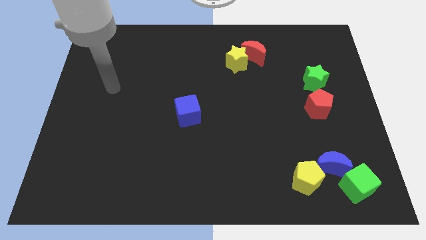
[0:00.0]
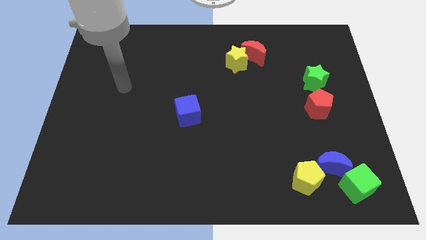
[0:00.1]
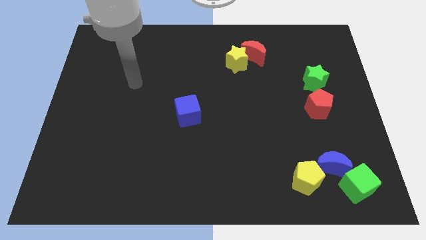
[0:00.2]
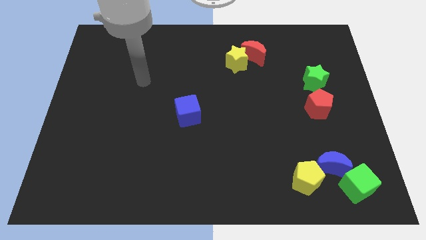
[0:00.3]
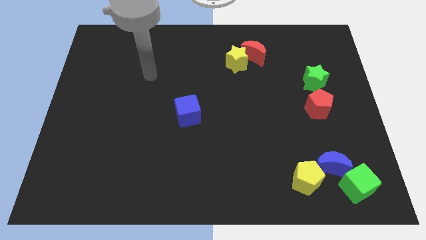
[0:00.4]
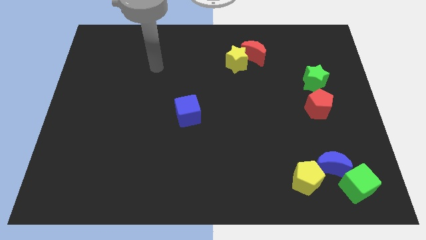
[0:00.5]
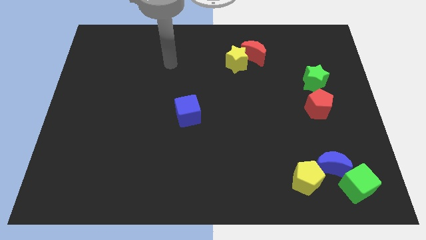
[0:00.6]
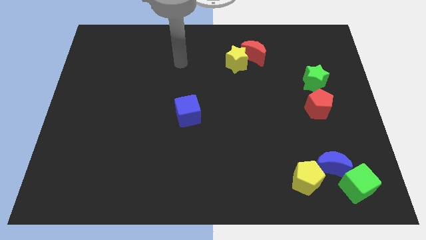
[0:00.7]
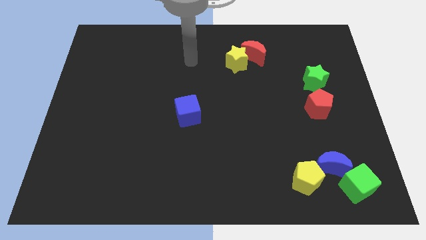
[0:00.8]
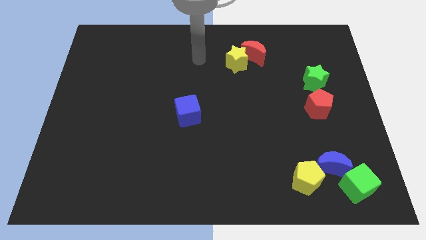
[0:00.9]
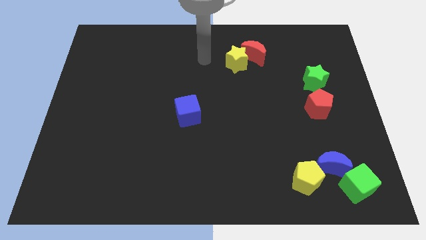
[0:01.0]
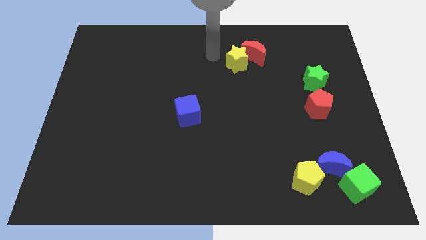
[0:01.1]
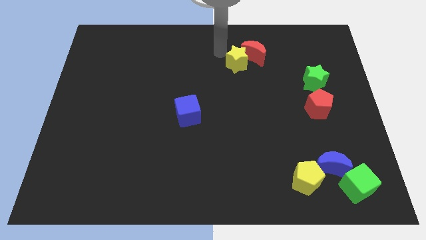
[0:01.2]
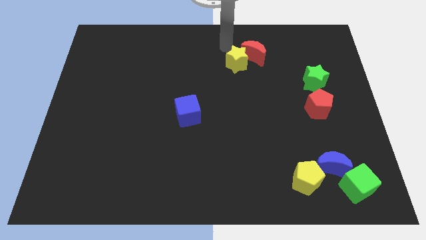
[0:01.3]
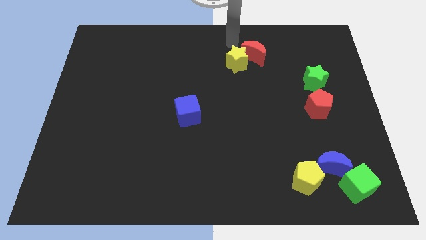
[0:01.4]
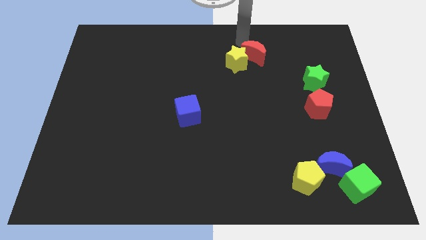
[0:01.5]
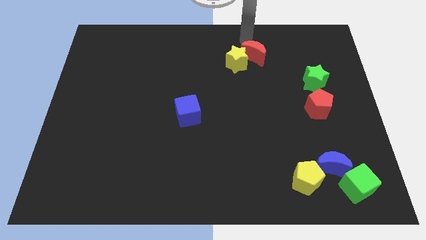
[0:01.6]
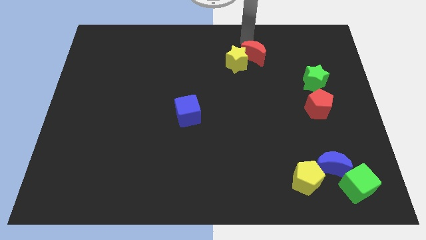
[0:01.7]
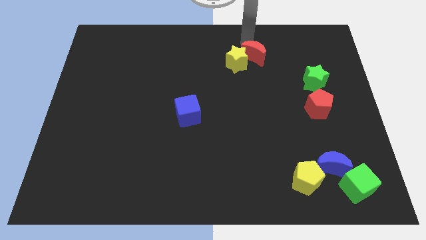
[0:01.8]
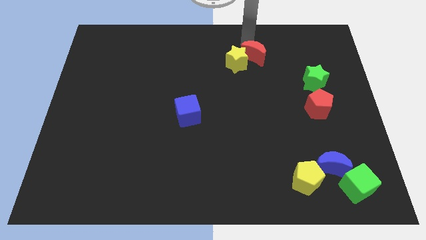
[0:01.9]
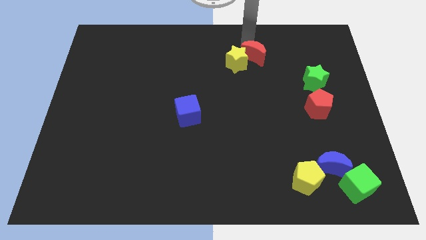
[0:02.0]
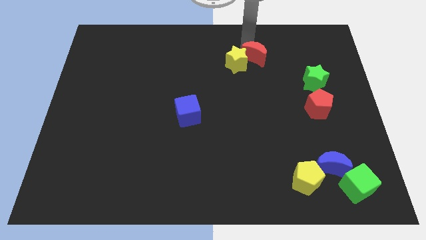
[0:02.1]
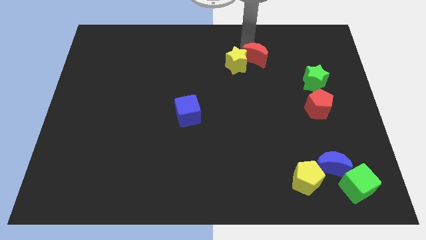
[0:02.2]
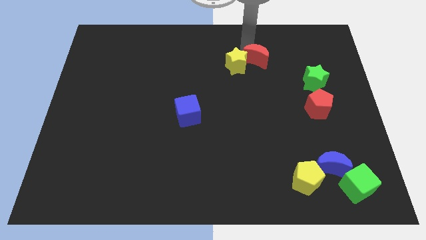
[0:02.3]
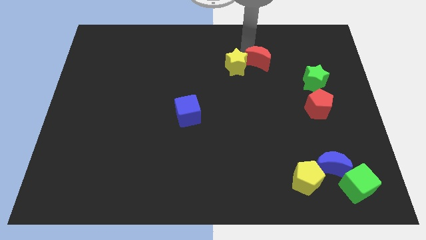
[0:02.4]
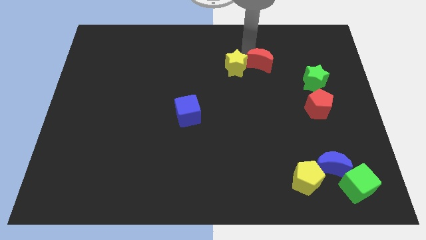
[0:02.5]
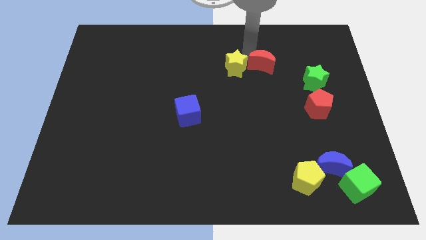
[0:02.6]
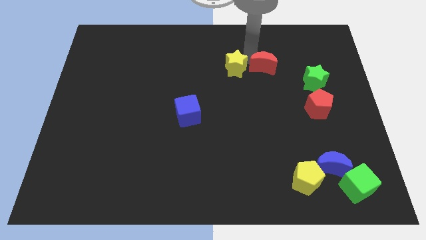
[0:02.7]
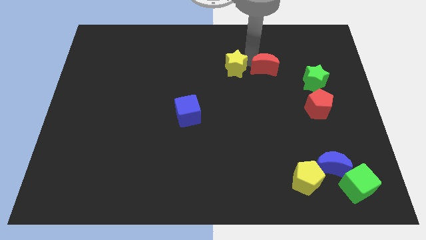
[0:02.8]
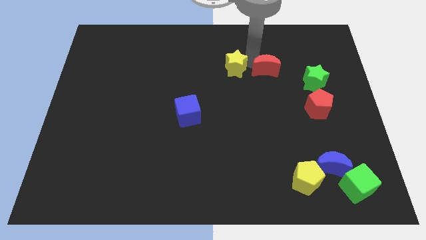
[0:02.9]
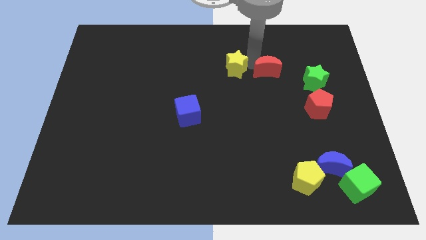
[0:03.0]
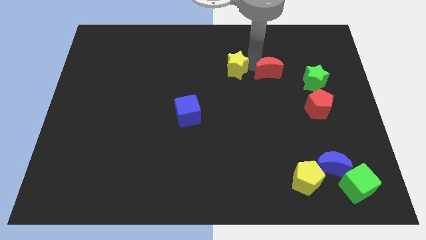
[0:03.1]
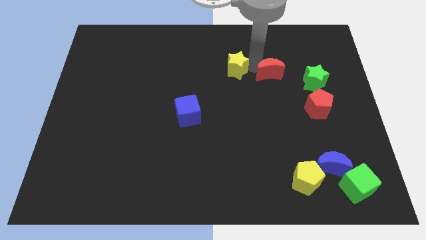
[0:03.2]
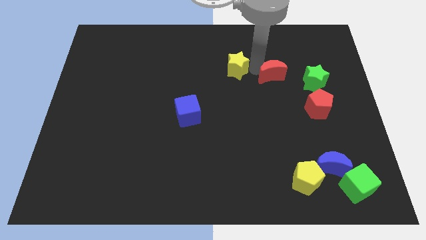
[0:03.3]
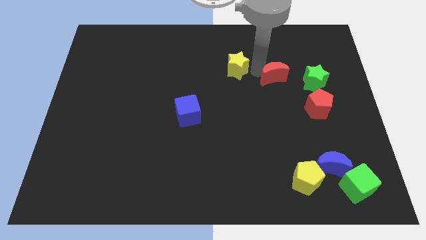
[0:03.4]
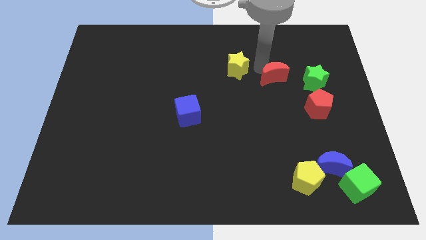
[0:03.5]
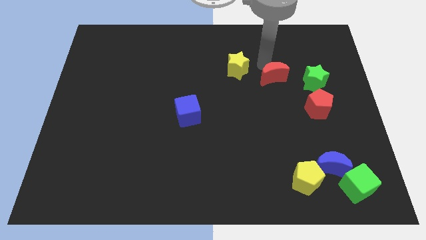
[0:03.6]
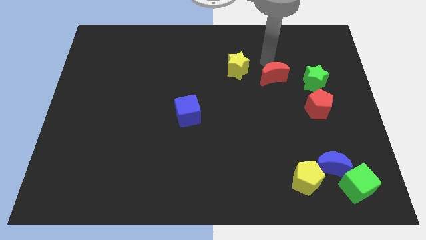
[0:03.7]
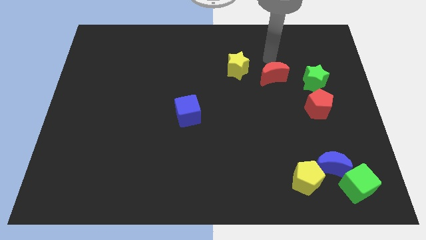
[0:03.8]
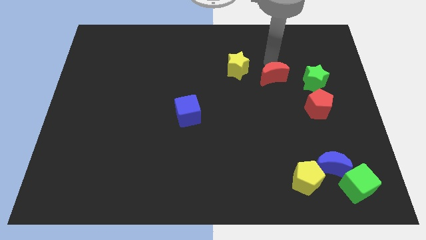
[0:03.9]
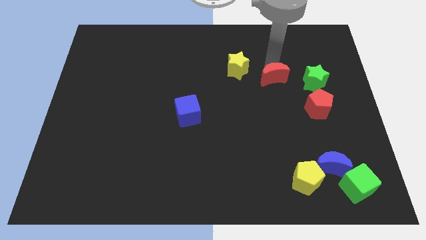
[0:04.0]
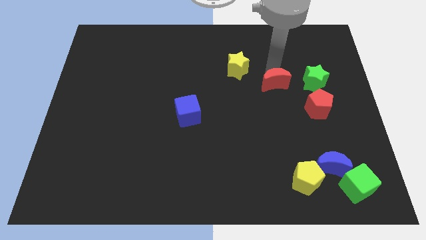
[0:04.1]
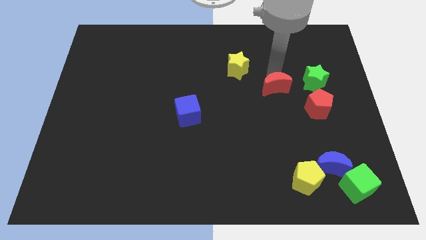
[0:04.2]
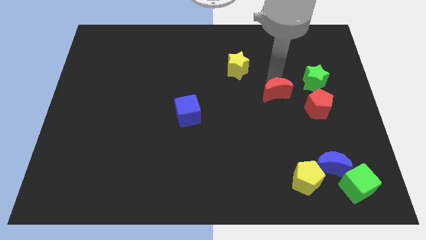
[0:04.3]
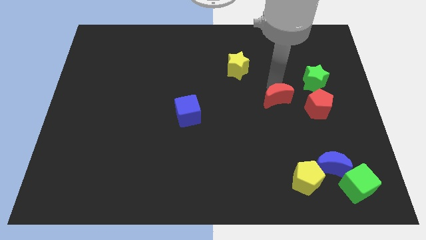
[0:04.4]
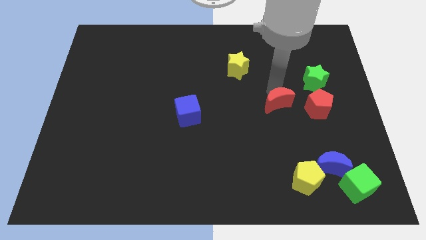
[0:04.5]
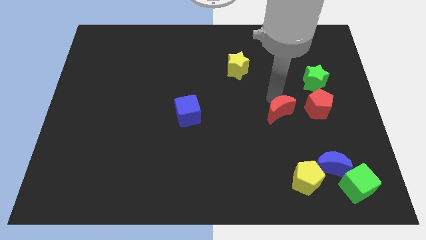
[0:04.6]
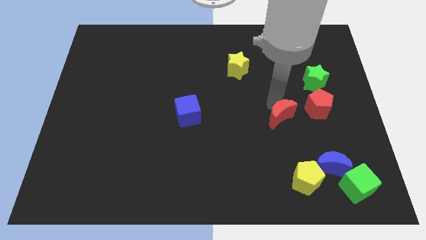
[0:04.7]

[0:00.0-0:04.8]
put the red moon diagonally down and to the left of the red pentagon

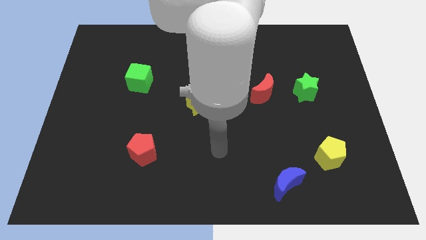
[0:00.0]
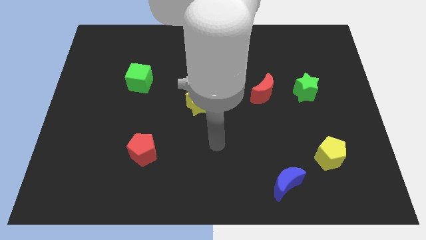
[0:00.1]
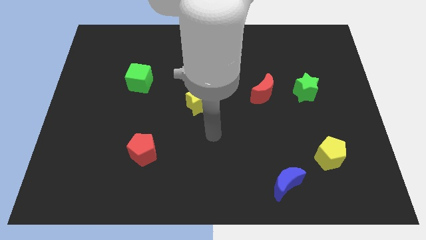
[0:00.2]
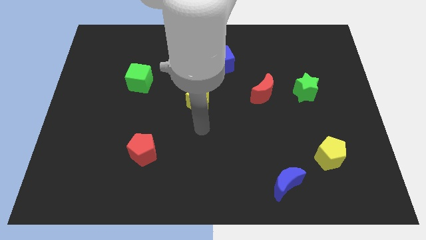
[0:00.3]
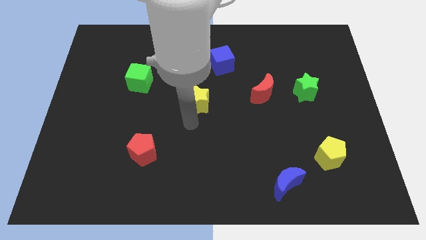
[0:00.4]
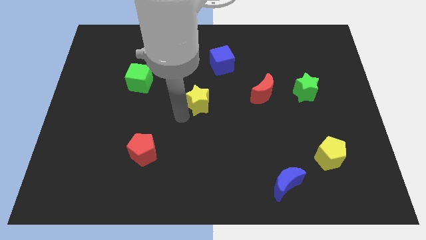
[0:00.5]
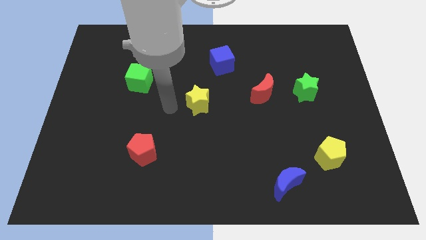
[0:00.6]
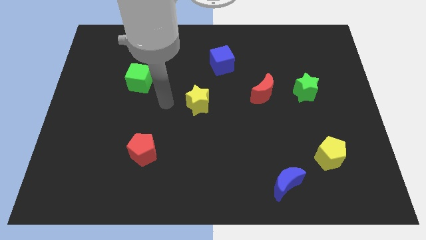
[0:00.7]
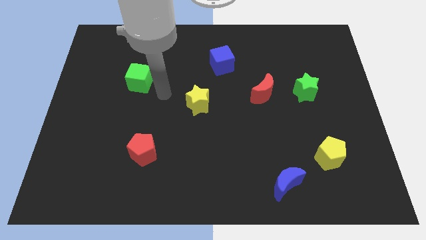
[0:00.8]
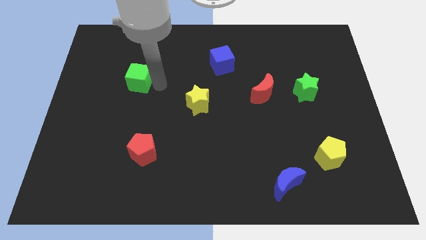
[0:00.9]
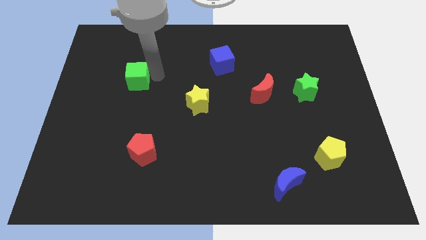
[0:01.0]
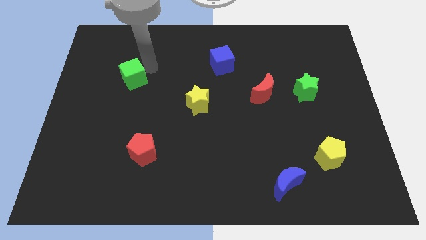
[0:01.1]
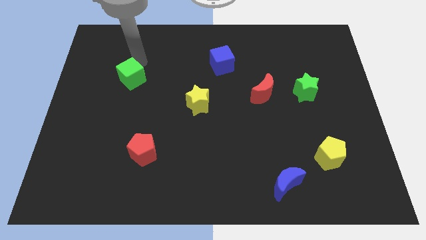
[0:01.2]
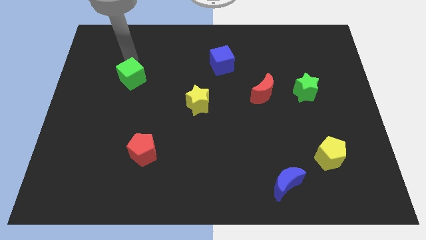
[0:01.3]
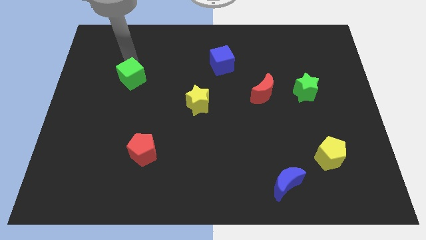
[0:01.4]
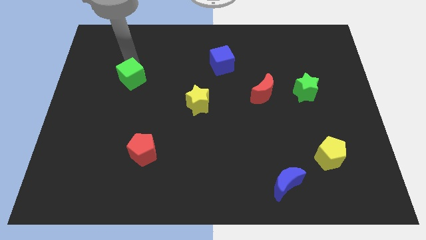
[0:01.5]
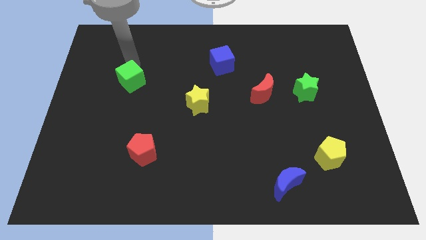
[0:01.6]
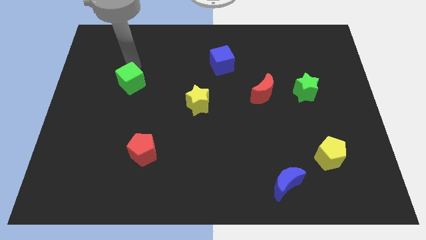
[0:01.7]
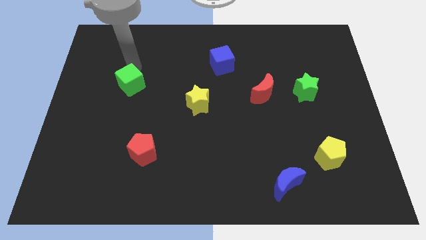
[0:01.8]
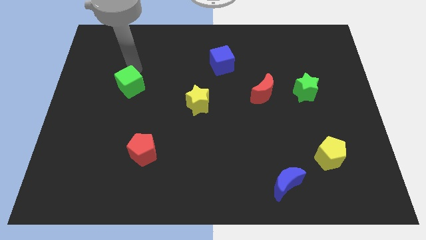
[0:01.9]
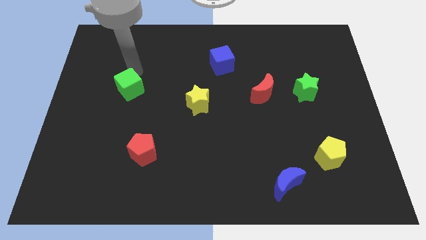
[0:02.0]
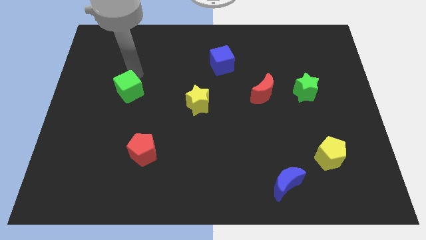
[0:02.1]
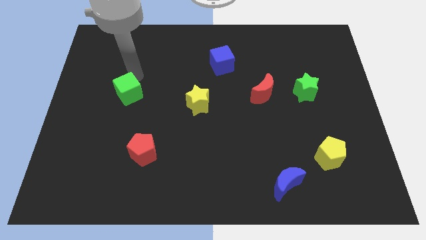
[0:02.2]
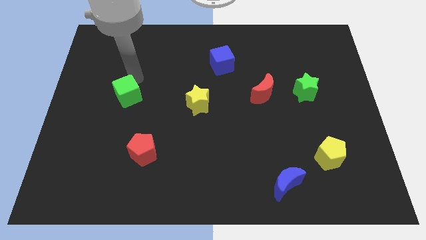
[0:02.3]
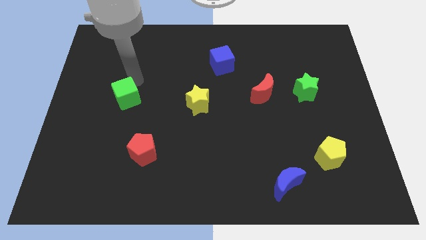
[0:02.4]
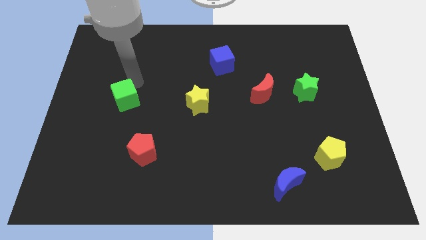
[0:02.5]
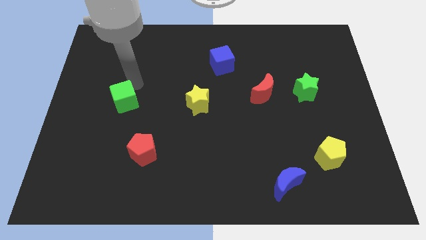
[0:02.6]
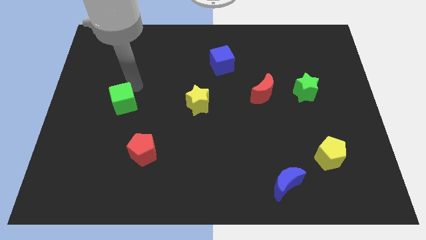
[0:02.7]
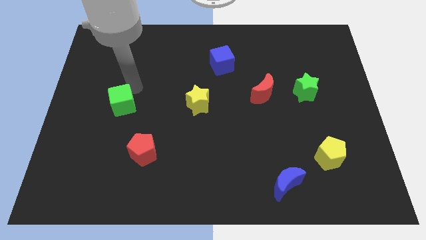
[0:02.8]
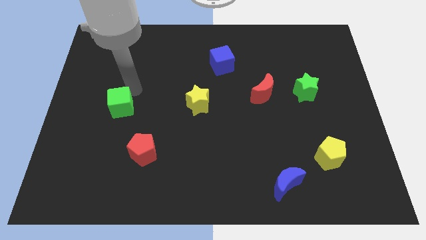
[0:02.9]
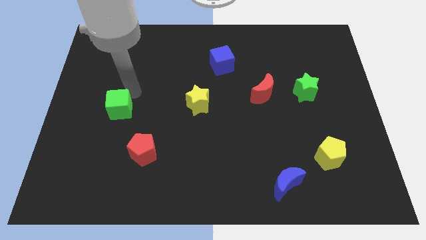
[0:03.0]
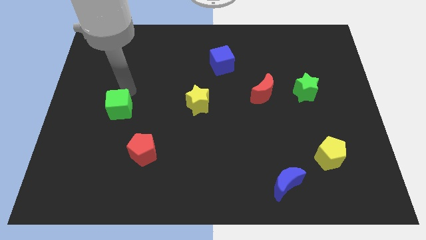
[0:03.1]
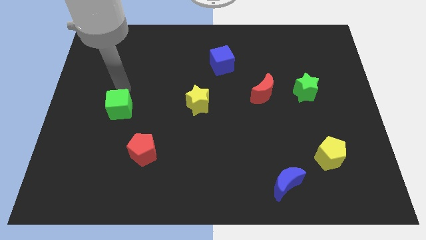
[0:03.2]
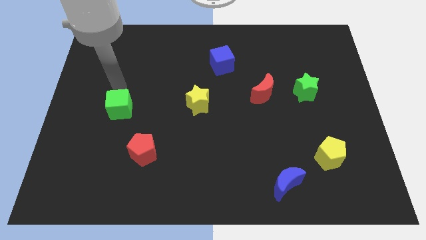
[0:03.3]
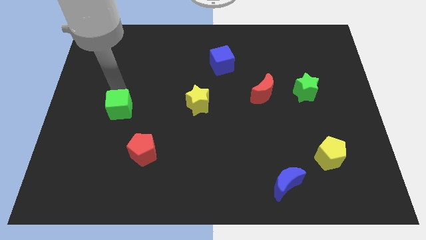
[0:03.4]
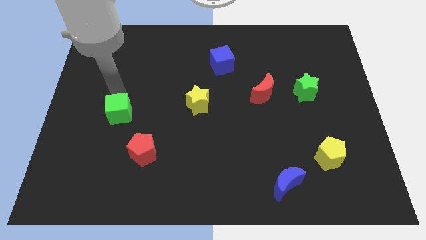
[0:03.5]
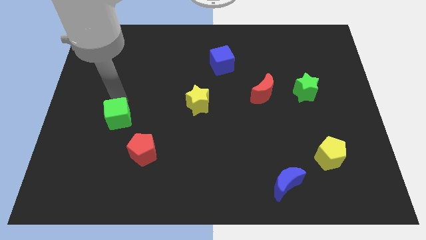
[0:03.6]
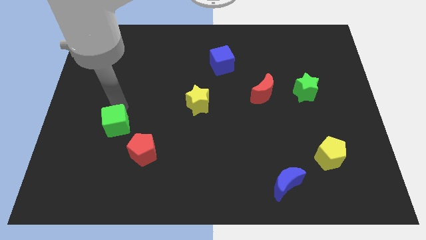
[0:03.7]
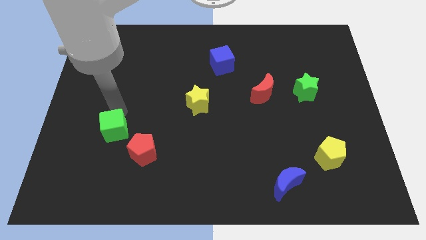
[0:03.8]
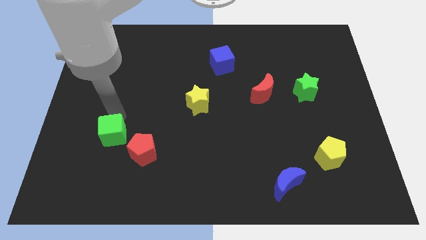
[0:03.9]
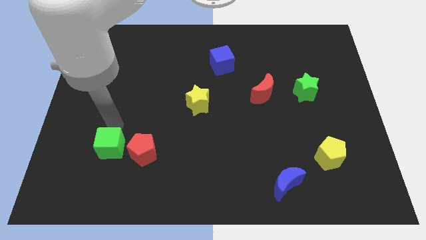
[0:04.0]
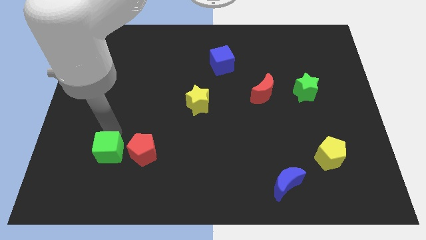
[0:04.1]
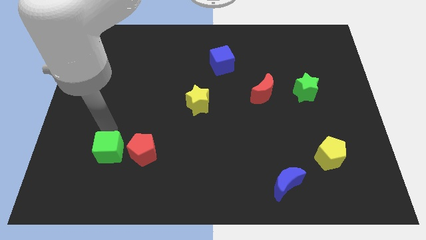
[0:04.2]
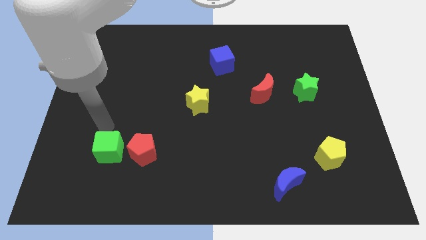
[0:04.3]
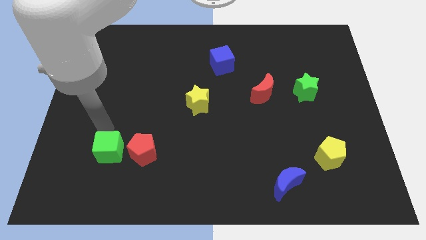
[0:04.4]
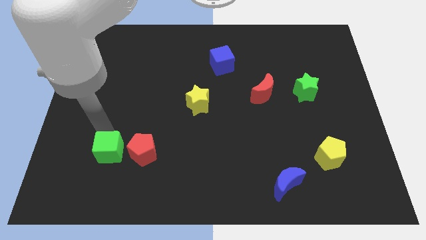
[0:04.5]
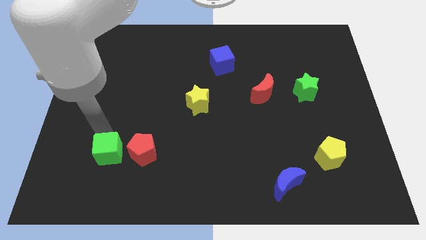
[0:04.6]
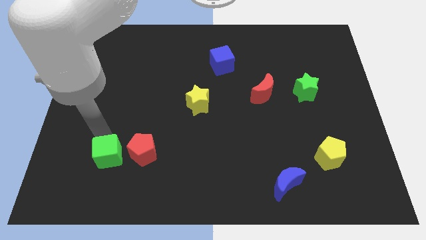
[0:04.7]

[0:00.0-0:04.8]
move the green cube to the bottom left of the red pentagon
